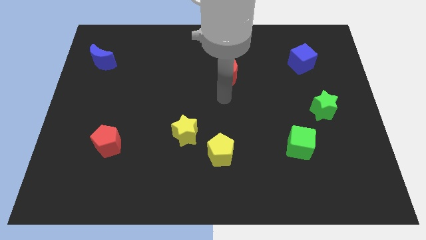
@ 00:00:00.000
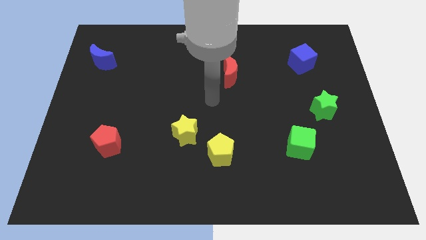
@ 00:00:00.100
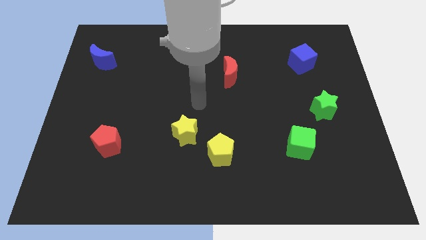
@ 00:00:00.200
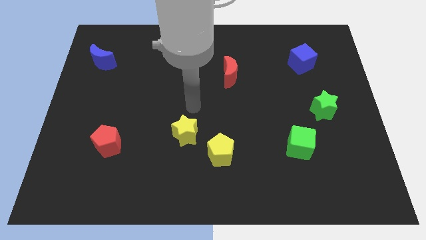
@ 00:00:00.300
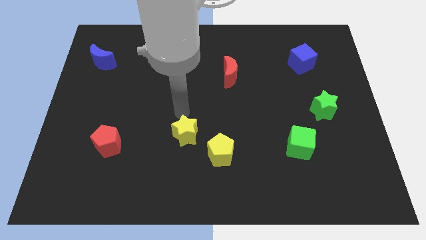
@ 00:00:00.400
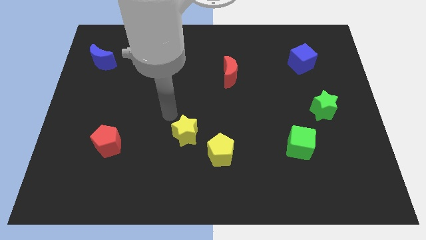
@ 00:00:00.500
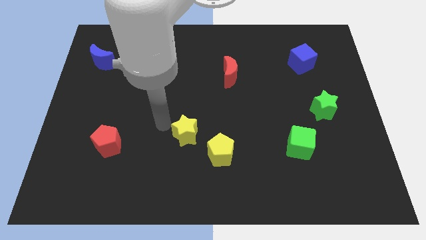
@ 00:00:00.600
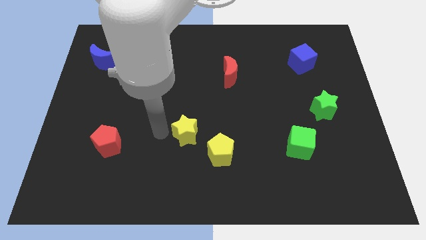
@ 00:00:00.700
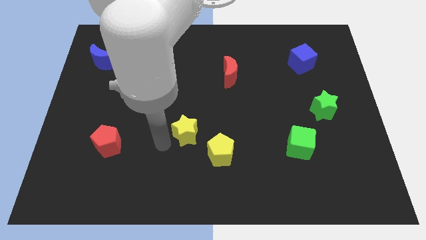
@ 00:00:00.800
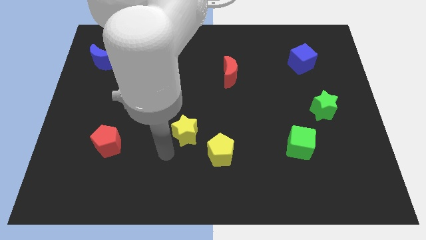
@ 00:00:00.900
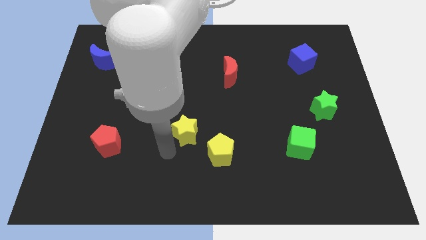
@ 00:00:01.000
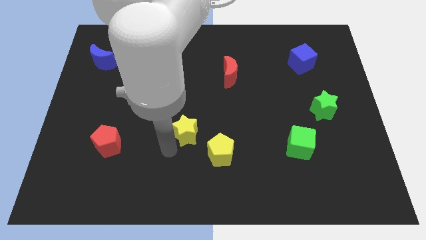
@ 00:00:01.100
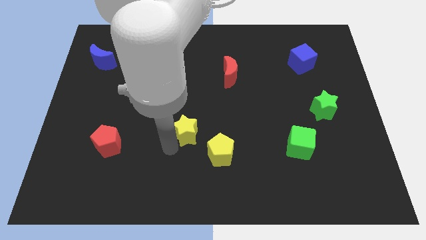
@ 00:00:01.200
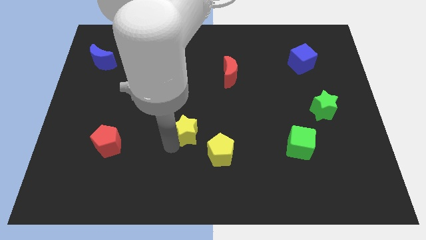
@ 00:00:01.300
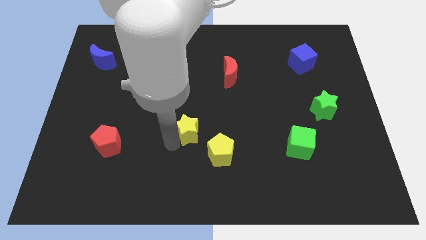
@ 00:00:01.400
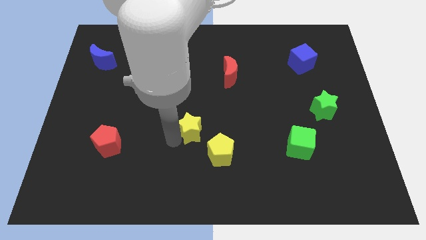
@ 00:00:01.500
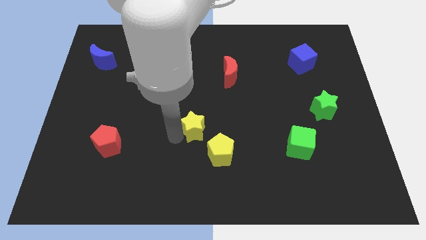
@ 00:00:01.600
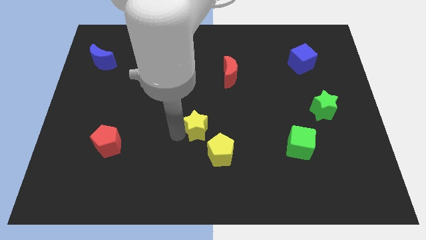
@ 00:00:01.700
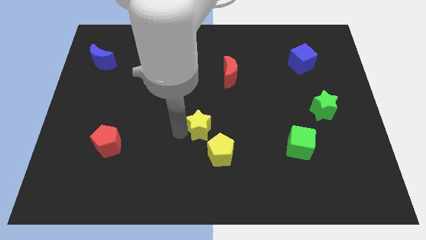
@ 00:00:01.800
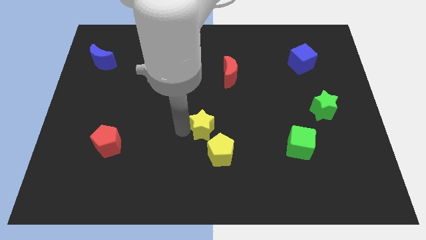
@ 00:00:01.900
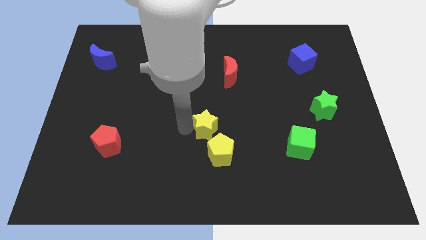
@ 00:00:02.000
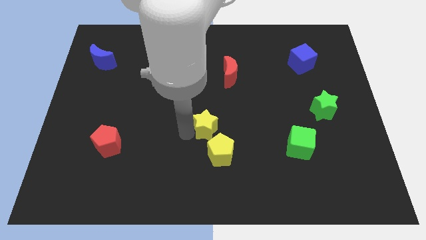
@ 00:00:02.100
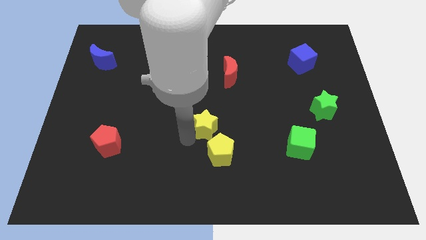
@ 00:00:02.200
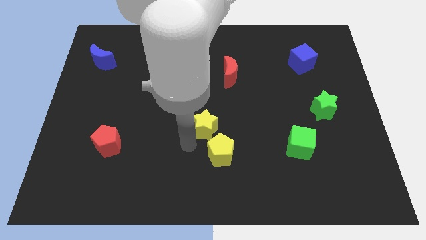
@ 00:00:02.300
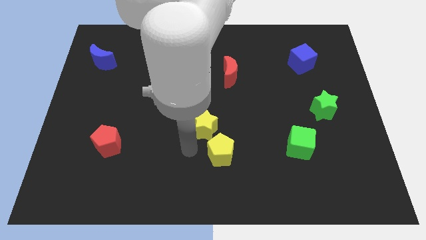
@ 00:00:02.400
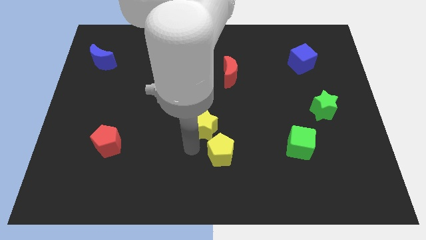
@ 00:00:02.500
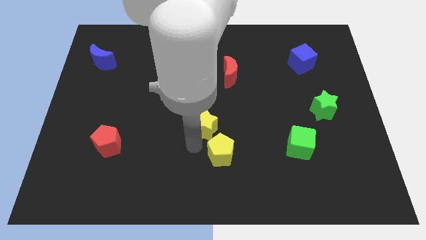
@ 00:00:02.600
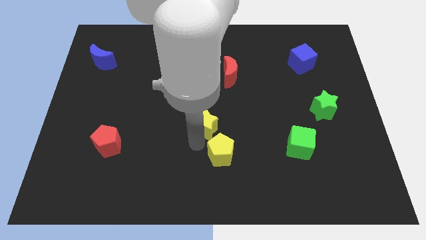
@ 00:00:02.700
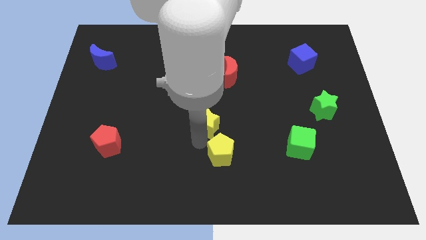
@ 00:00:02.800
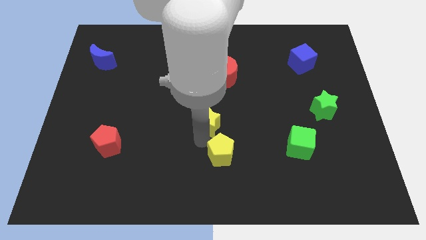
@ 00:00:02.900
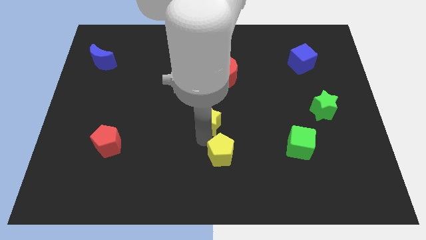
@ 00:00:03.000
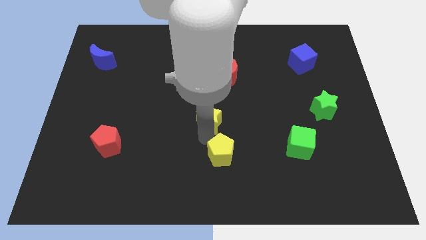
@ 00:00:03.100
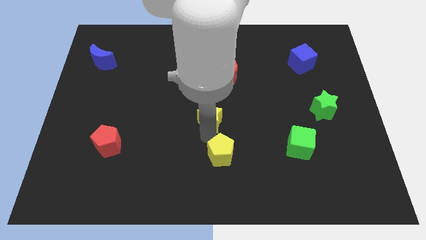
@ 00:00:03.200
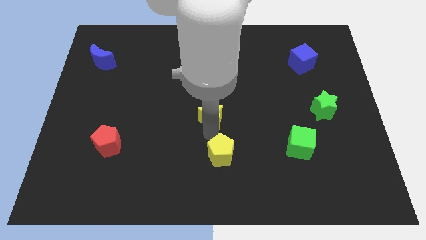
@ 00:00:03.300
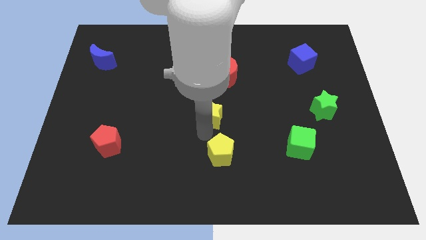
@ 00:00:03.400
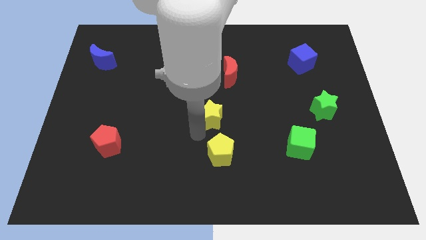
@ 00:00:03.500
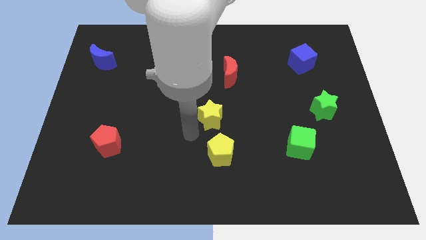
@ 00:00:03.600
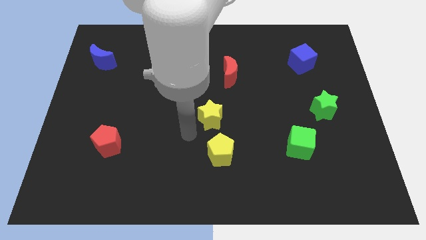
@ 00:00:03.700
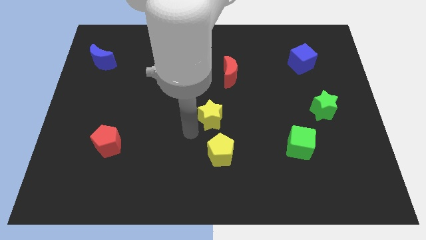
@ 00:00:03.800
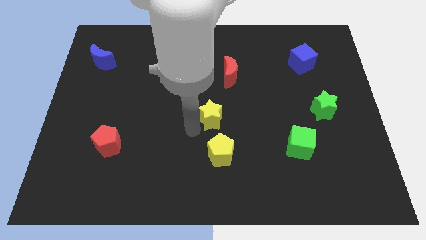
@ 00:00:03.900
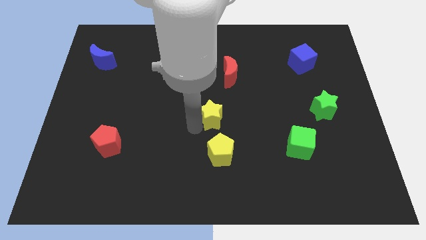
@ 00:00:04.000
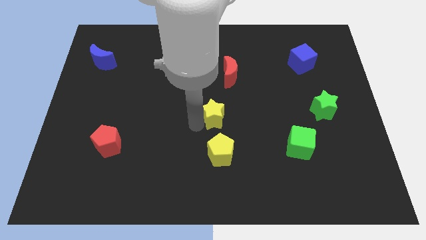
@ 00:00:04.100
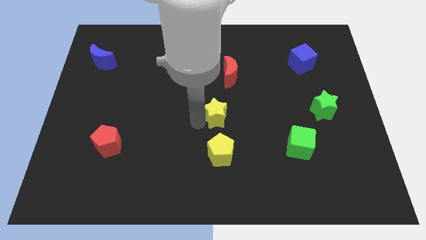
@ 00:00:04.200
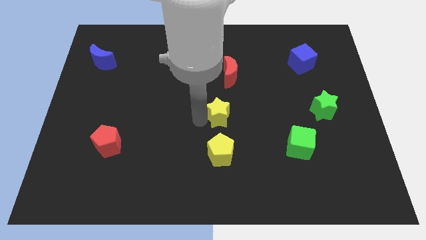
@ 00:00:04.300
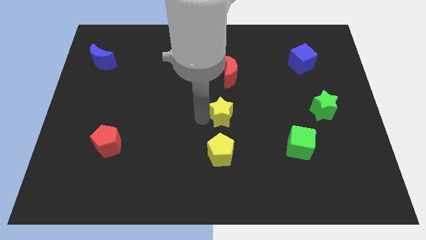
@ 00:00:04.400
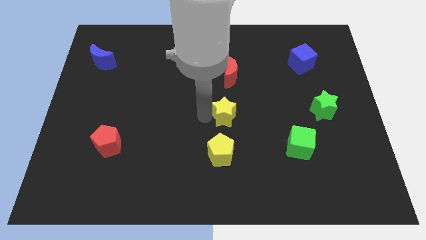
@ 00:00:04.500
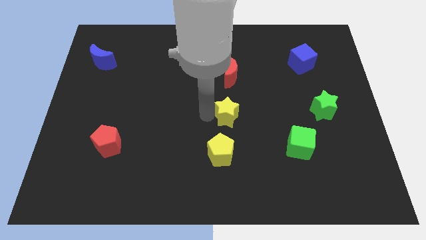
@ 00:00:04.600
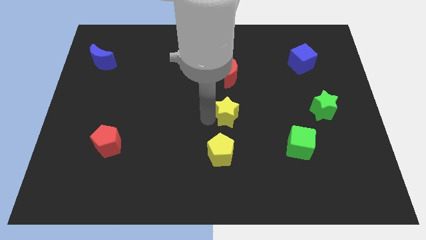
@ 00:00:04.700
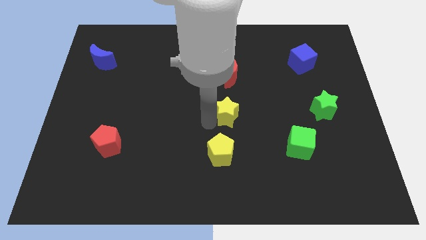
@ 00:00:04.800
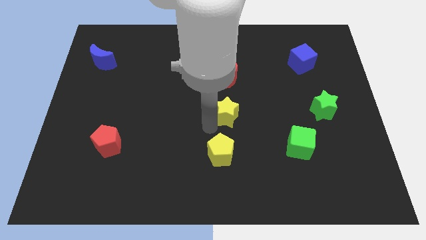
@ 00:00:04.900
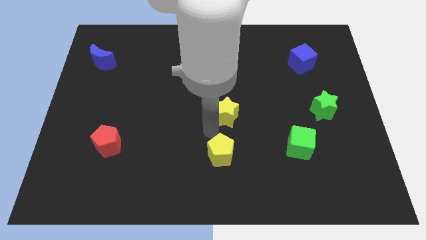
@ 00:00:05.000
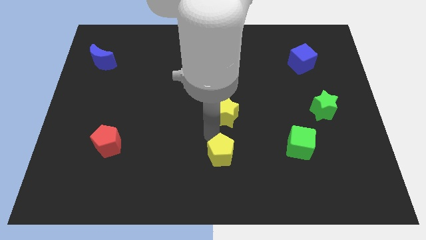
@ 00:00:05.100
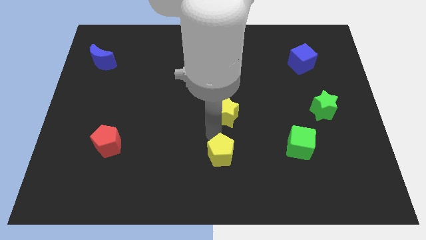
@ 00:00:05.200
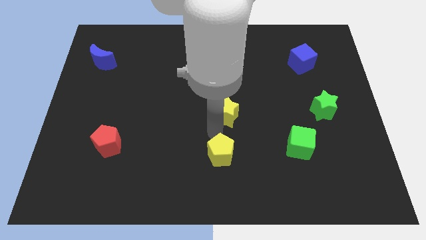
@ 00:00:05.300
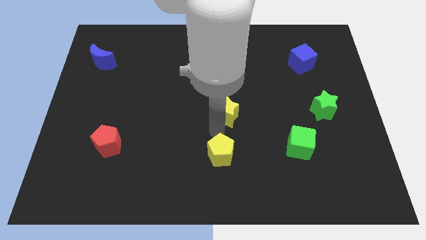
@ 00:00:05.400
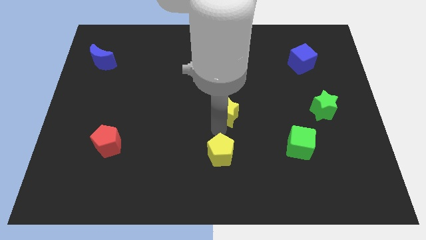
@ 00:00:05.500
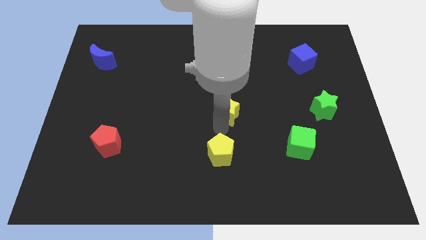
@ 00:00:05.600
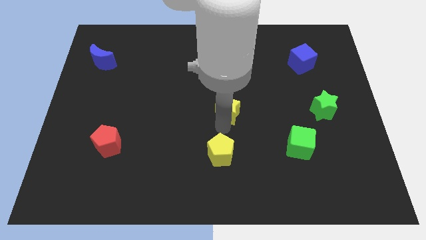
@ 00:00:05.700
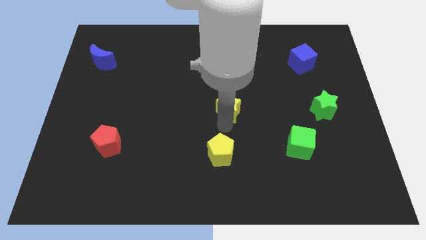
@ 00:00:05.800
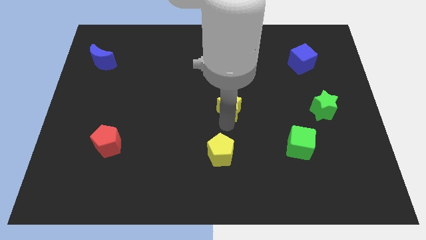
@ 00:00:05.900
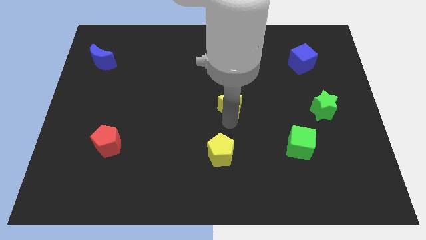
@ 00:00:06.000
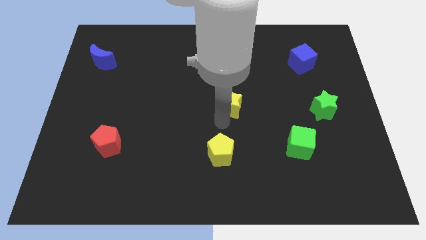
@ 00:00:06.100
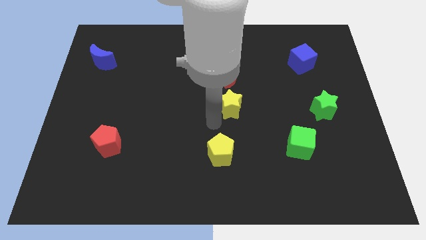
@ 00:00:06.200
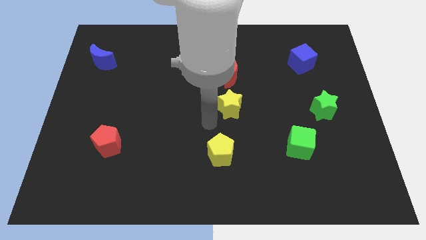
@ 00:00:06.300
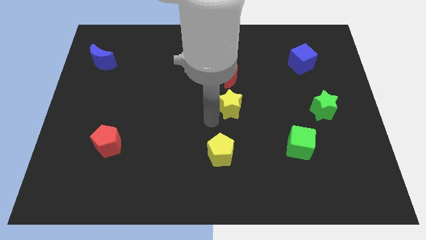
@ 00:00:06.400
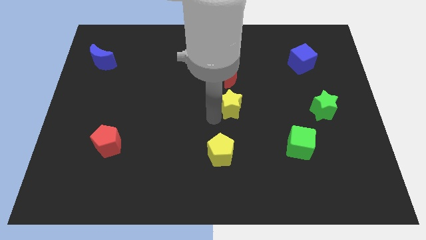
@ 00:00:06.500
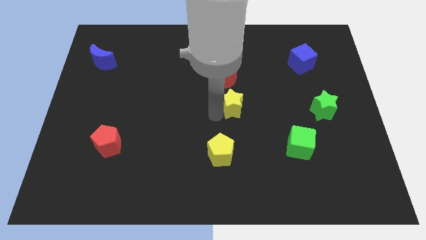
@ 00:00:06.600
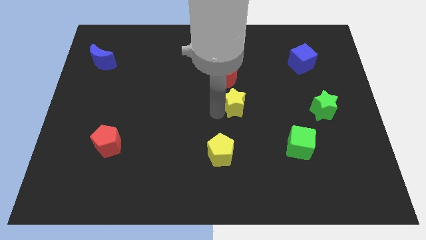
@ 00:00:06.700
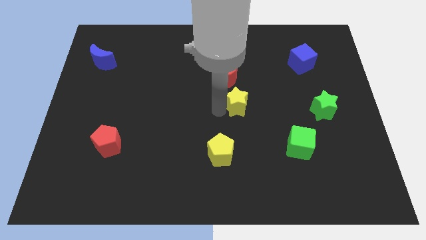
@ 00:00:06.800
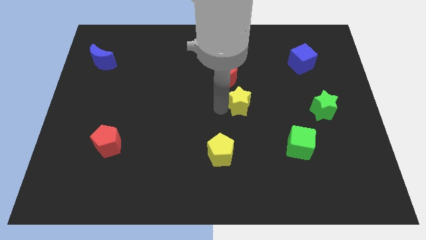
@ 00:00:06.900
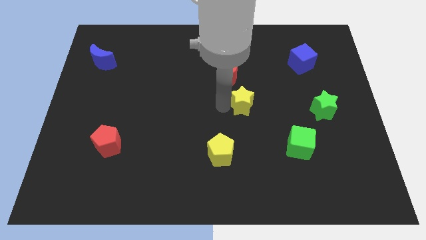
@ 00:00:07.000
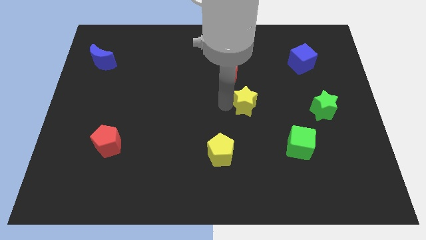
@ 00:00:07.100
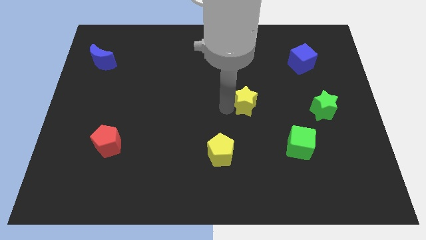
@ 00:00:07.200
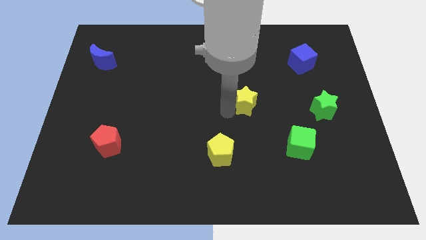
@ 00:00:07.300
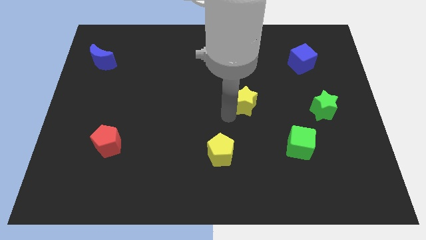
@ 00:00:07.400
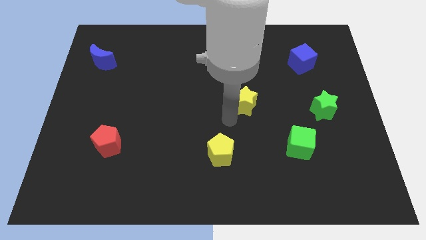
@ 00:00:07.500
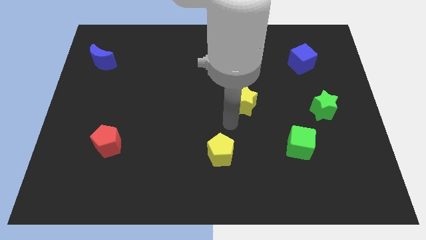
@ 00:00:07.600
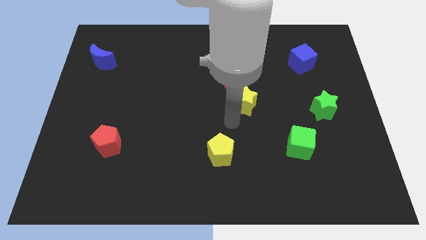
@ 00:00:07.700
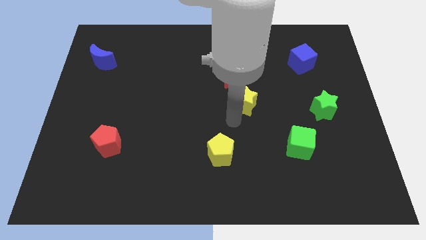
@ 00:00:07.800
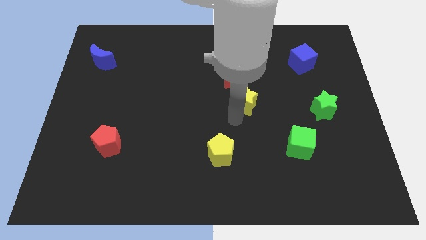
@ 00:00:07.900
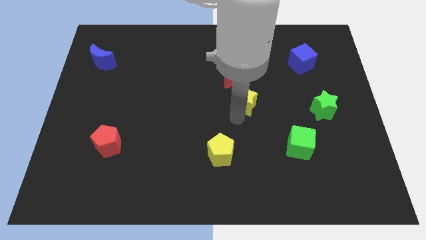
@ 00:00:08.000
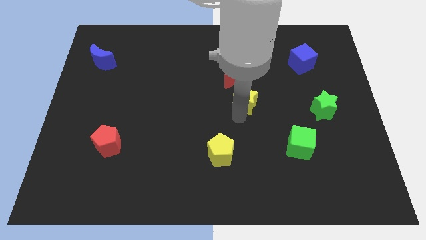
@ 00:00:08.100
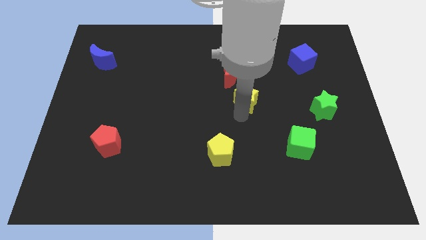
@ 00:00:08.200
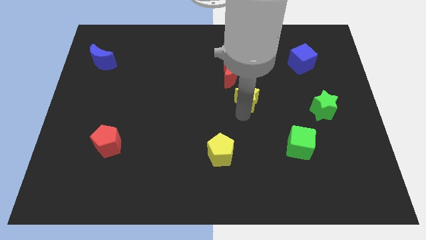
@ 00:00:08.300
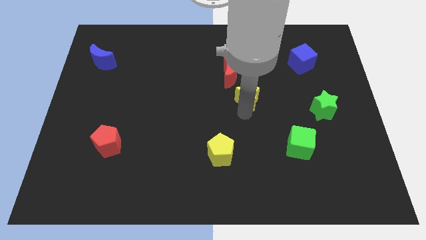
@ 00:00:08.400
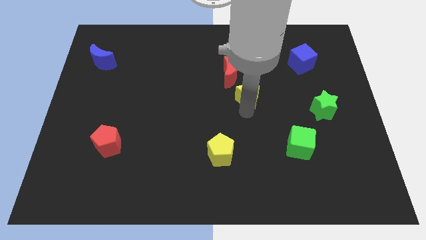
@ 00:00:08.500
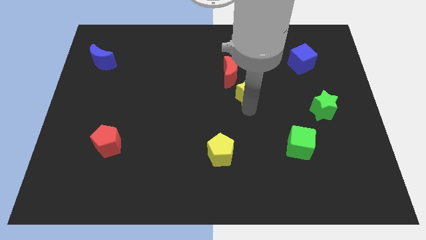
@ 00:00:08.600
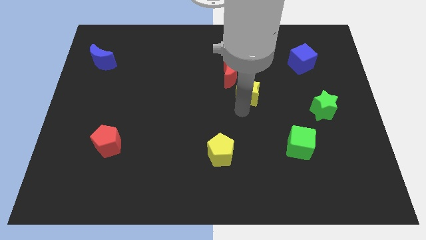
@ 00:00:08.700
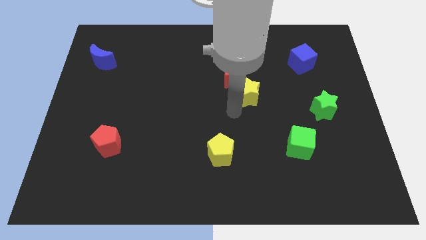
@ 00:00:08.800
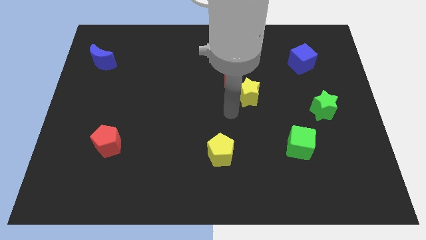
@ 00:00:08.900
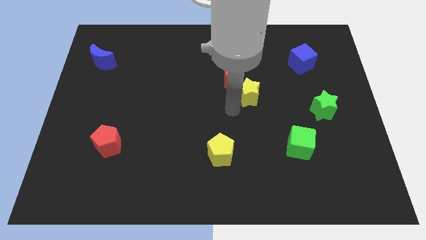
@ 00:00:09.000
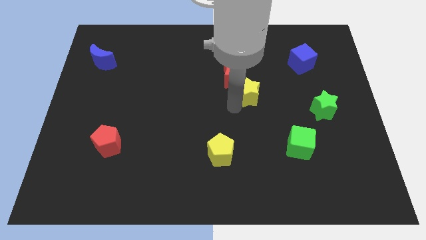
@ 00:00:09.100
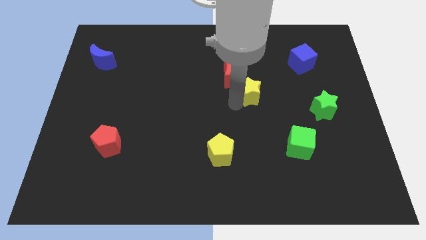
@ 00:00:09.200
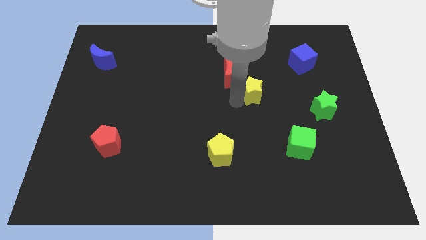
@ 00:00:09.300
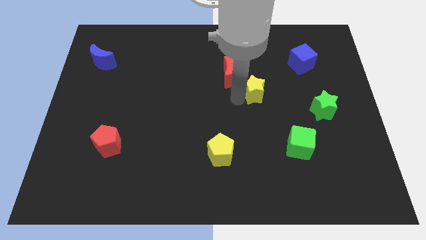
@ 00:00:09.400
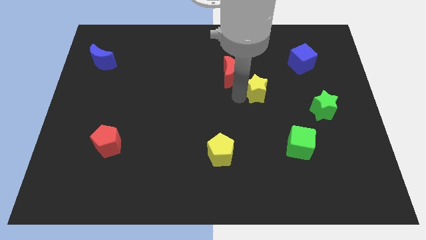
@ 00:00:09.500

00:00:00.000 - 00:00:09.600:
move the yellow star up and right
